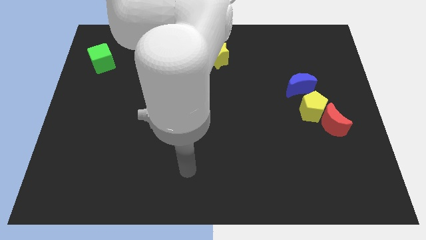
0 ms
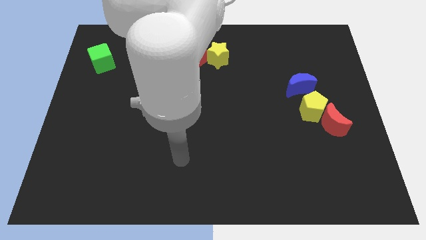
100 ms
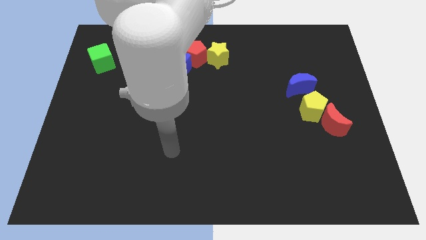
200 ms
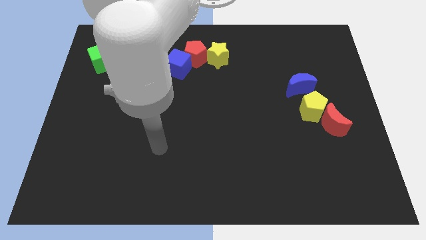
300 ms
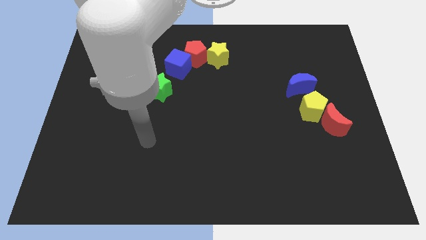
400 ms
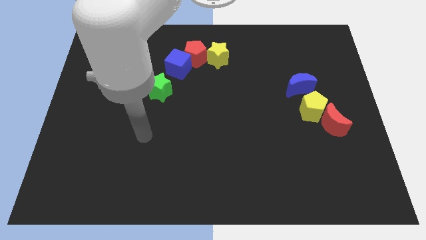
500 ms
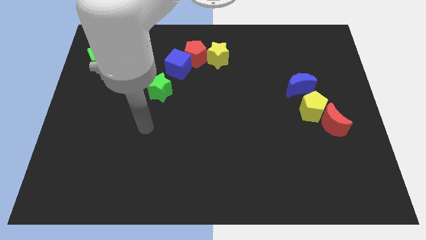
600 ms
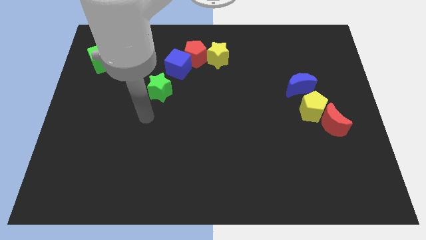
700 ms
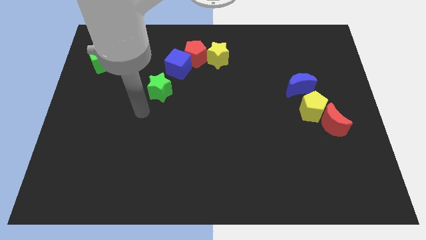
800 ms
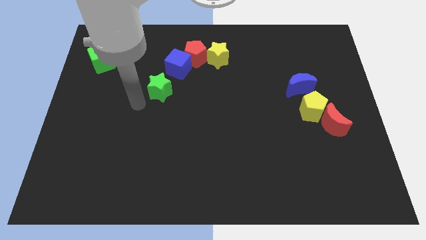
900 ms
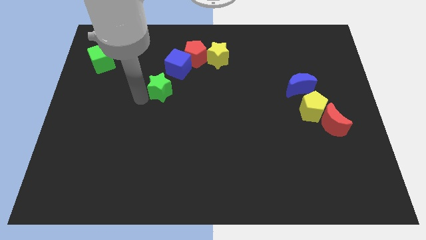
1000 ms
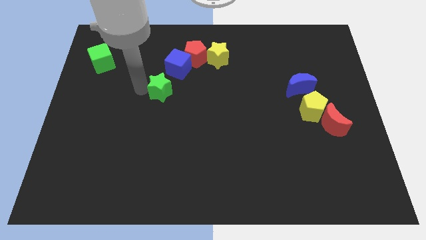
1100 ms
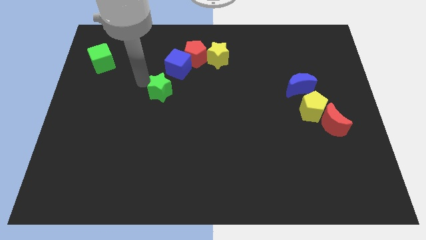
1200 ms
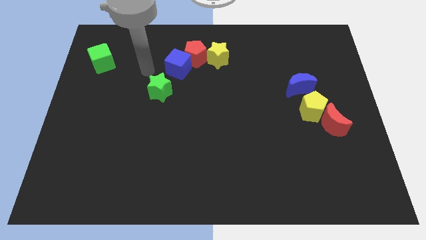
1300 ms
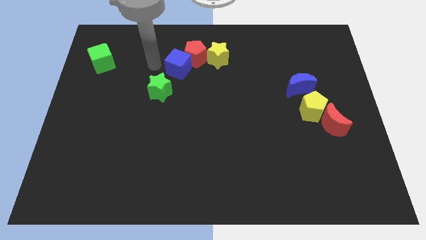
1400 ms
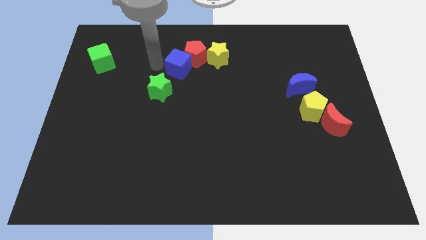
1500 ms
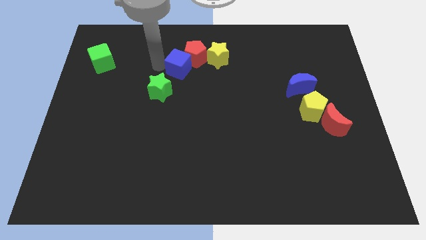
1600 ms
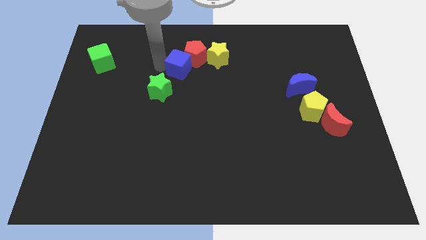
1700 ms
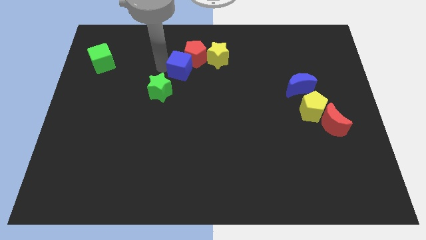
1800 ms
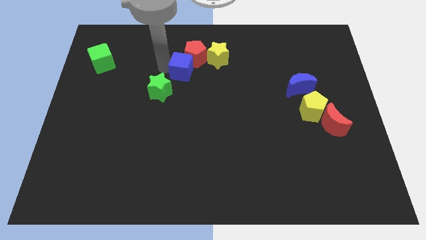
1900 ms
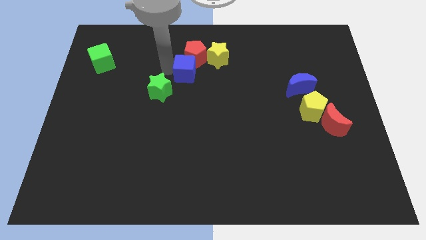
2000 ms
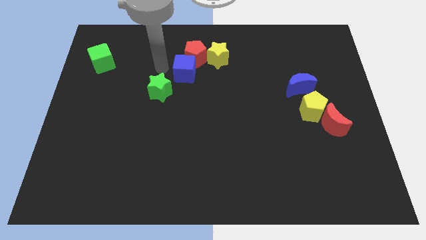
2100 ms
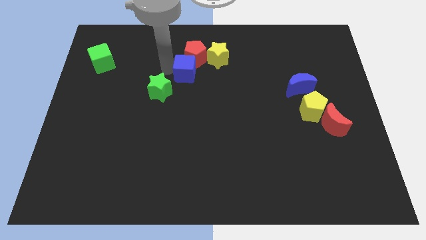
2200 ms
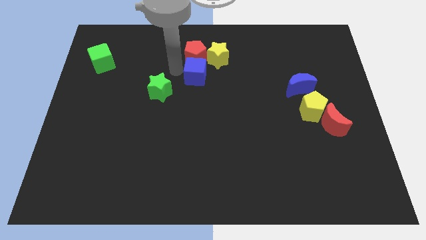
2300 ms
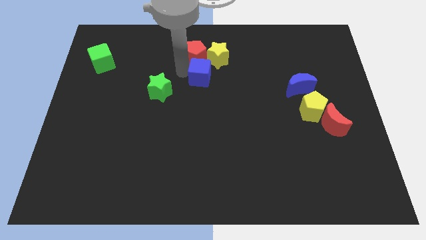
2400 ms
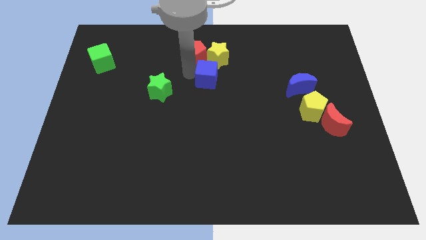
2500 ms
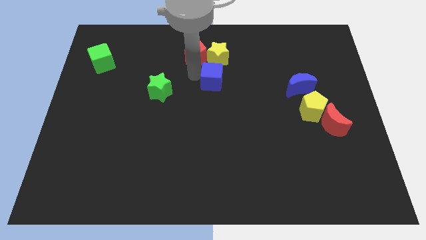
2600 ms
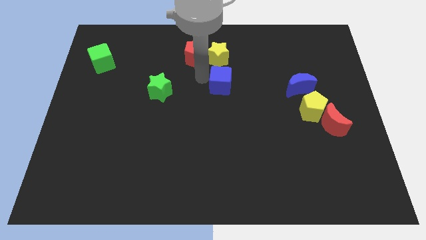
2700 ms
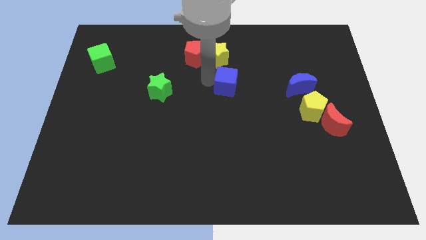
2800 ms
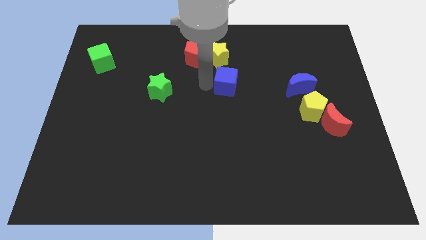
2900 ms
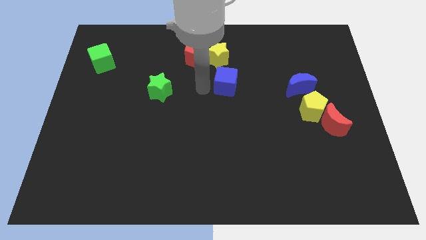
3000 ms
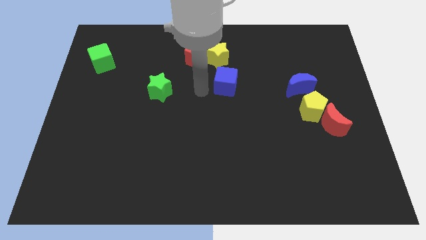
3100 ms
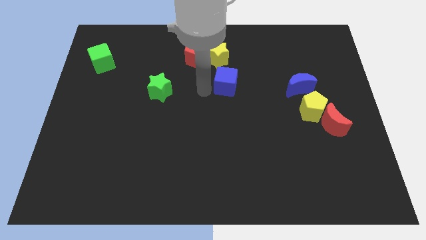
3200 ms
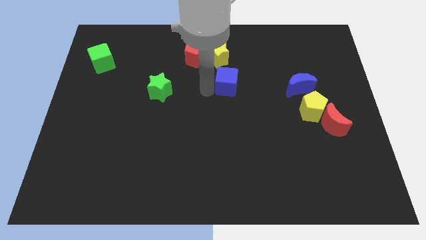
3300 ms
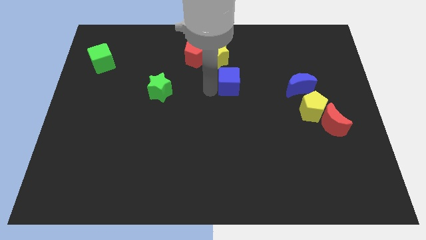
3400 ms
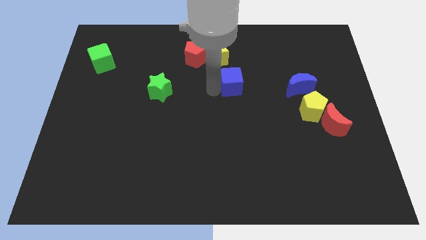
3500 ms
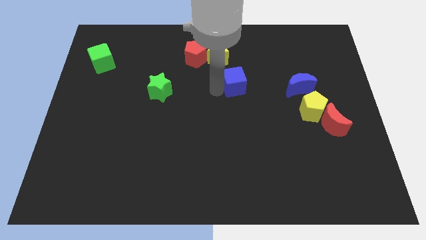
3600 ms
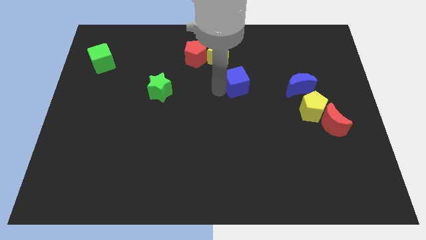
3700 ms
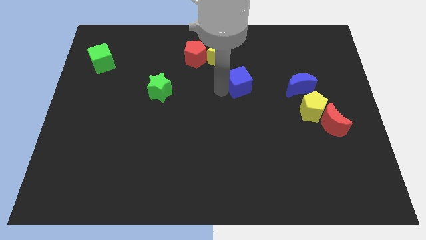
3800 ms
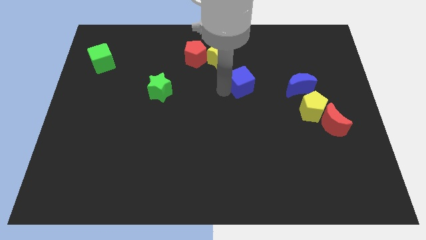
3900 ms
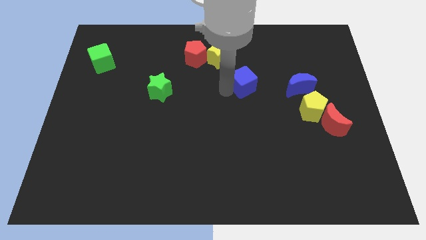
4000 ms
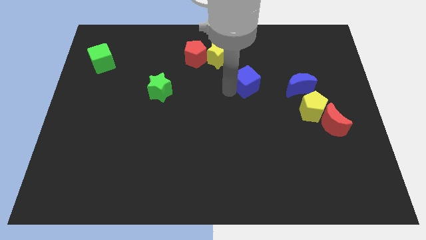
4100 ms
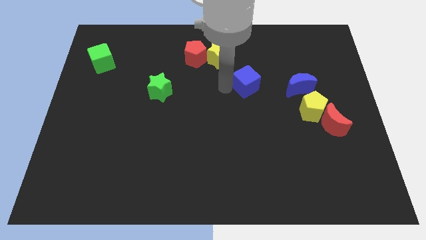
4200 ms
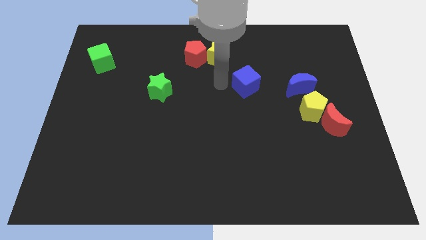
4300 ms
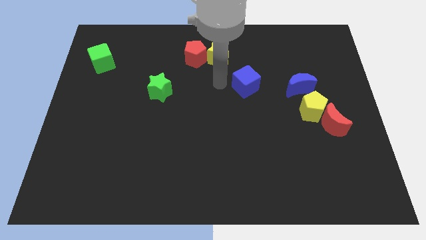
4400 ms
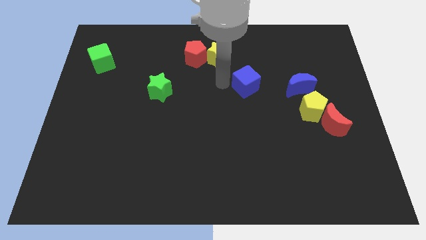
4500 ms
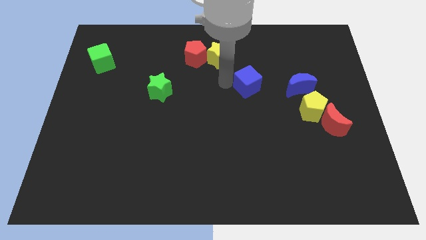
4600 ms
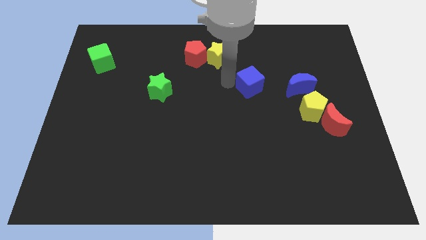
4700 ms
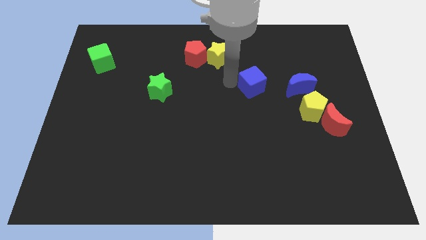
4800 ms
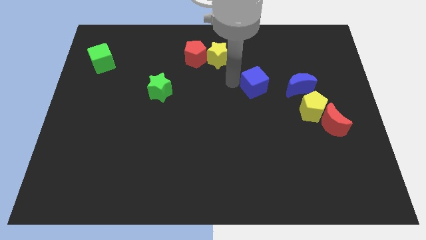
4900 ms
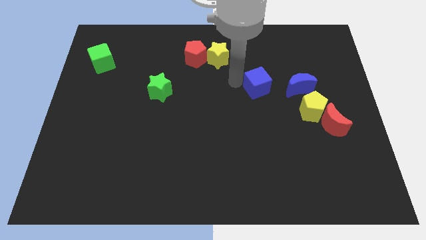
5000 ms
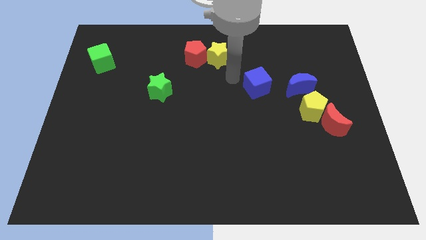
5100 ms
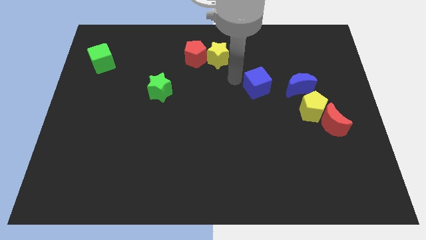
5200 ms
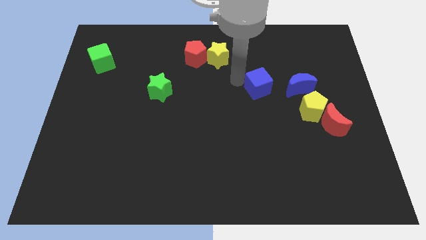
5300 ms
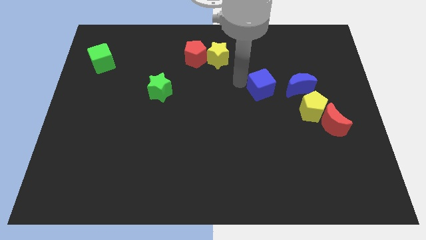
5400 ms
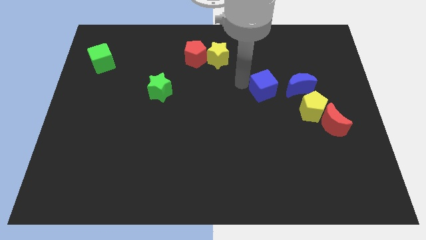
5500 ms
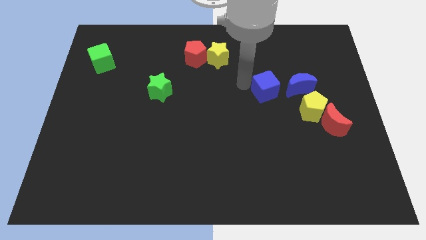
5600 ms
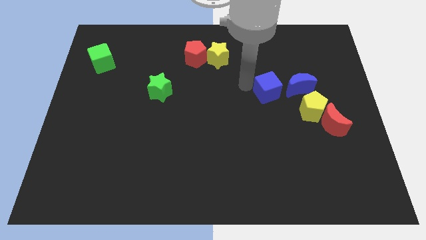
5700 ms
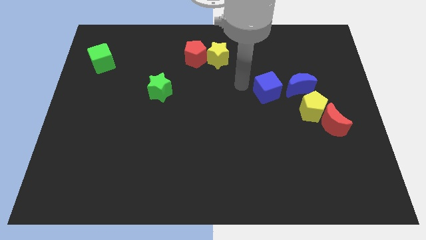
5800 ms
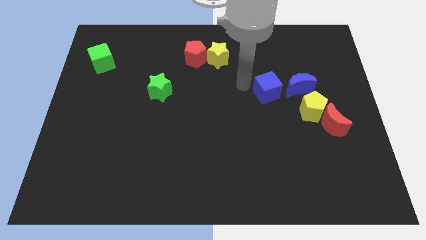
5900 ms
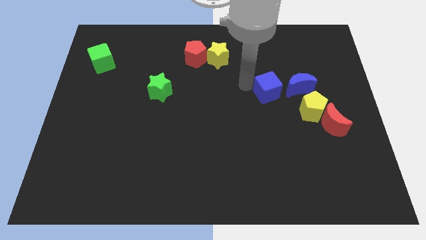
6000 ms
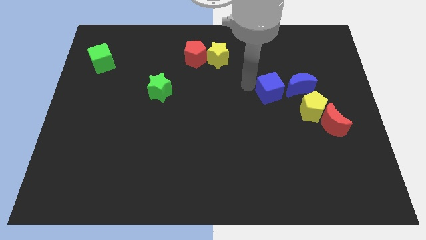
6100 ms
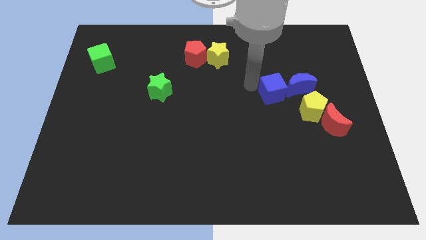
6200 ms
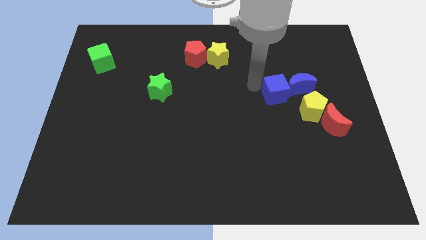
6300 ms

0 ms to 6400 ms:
move the blue cube towards the blue moon
